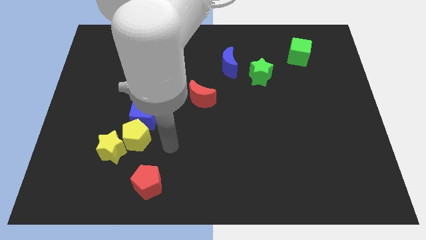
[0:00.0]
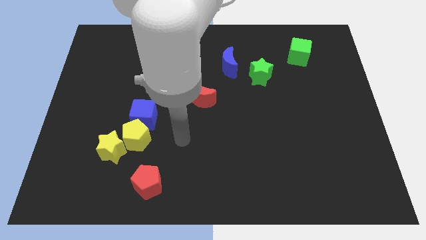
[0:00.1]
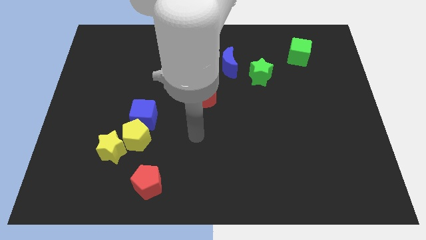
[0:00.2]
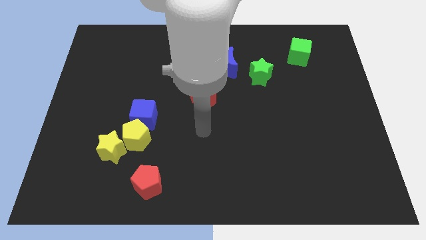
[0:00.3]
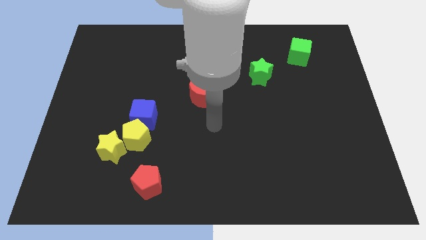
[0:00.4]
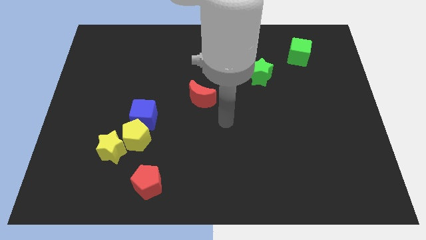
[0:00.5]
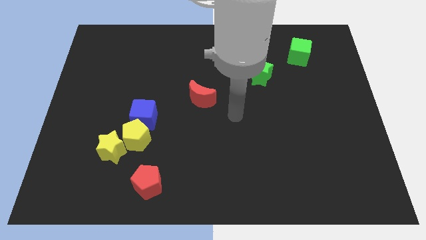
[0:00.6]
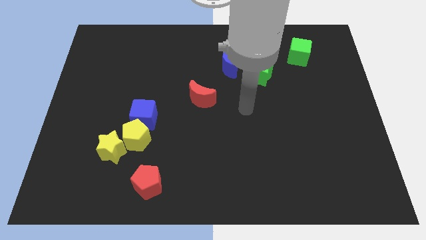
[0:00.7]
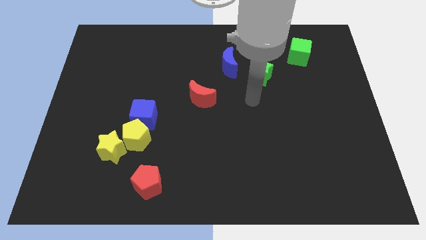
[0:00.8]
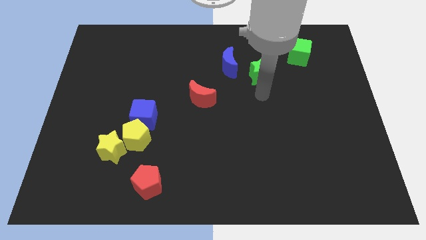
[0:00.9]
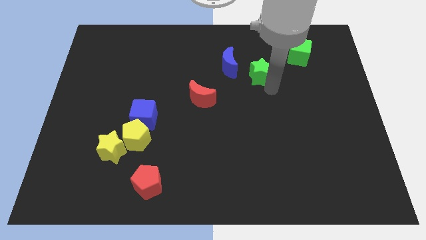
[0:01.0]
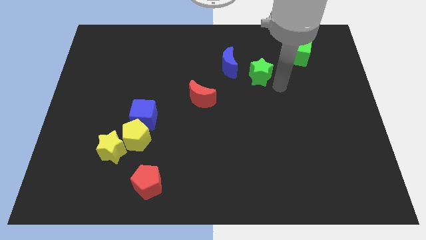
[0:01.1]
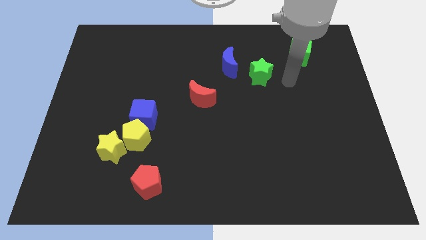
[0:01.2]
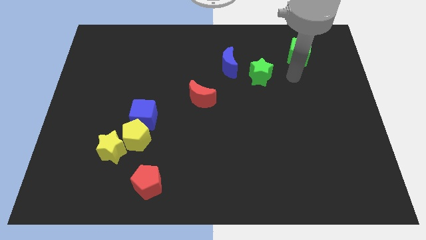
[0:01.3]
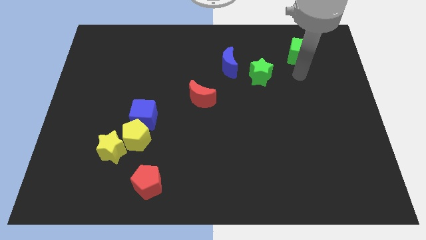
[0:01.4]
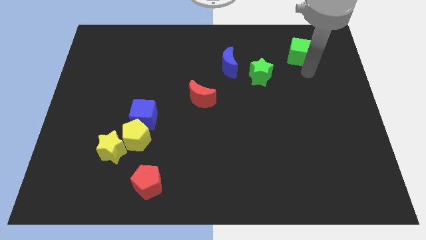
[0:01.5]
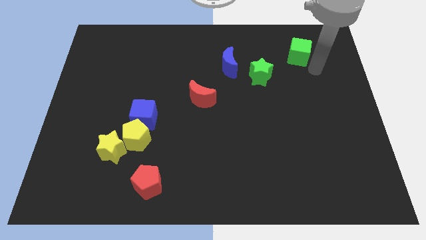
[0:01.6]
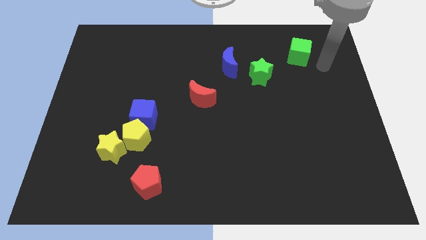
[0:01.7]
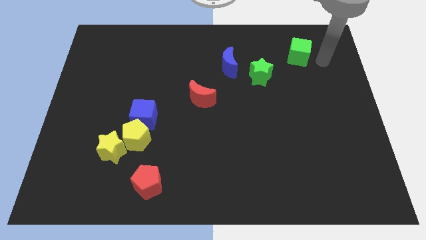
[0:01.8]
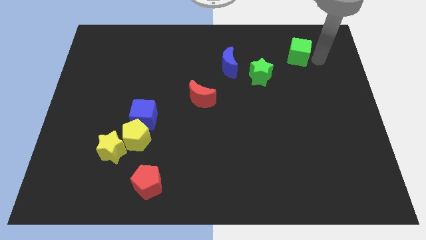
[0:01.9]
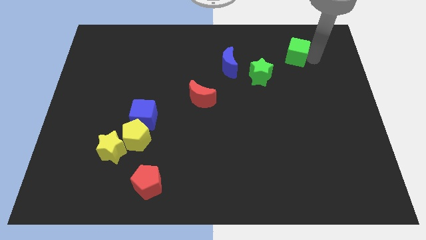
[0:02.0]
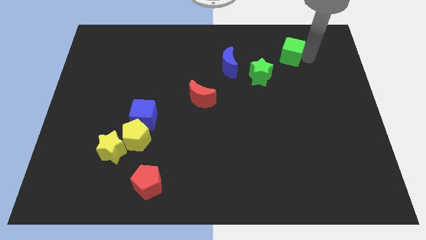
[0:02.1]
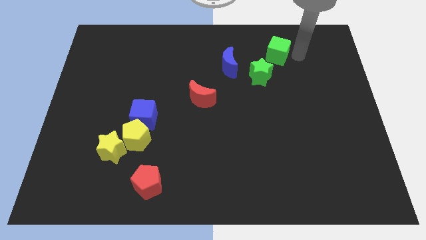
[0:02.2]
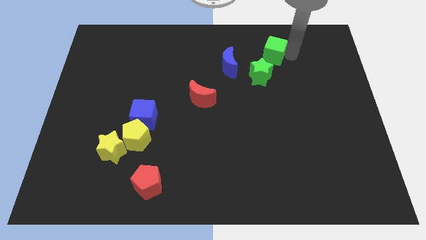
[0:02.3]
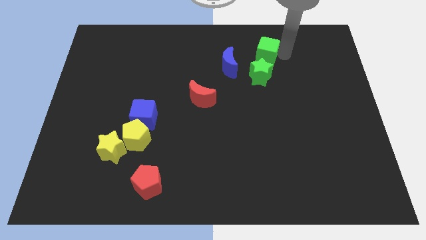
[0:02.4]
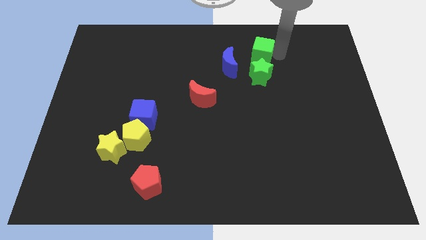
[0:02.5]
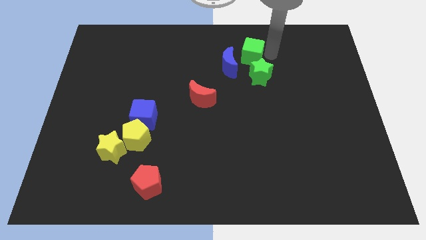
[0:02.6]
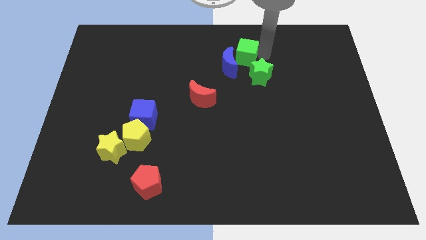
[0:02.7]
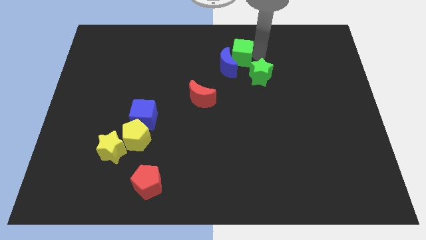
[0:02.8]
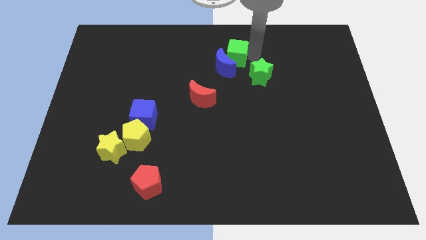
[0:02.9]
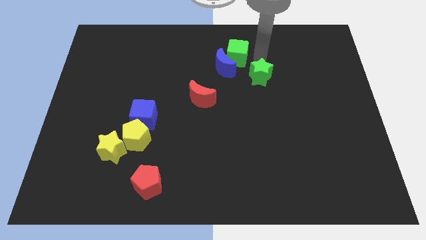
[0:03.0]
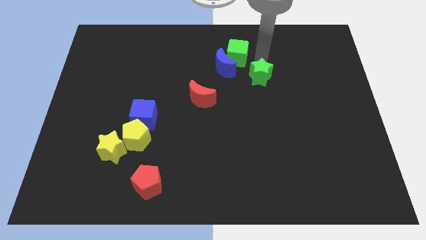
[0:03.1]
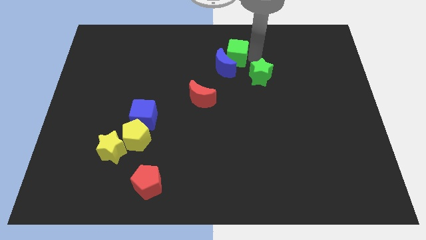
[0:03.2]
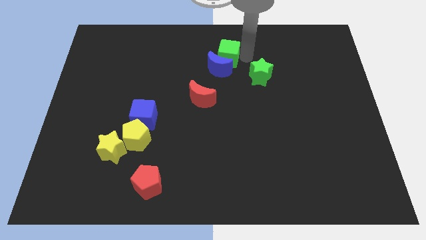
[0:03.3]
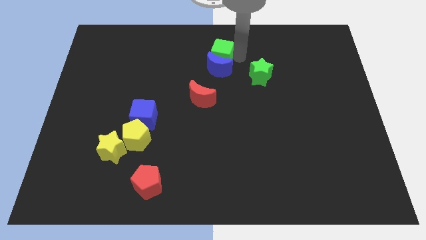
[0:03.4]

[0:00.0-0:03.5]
push the green cube to the left

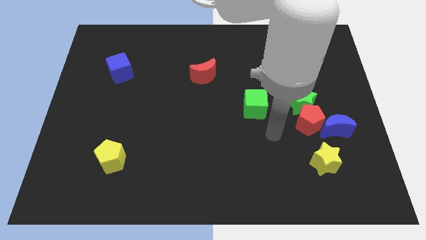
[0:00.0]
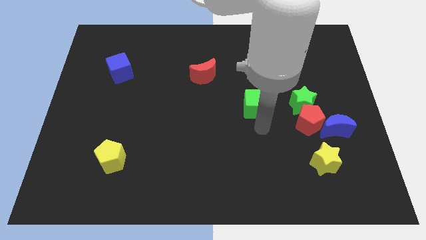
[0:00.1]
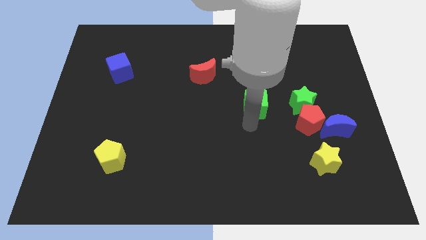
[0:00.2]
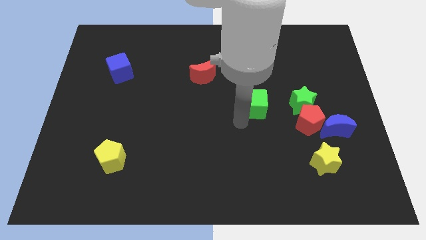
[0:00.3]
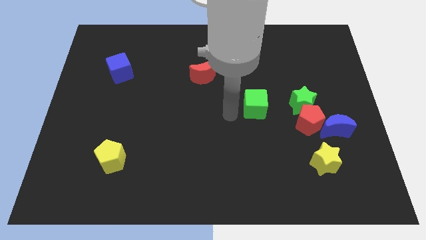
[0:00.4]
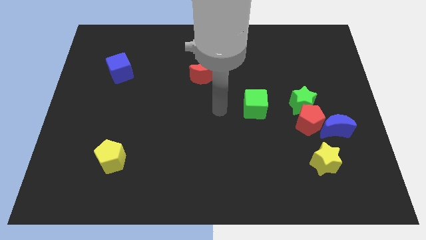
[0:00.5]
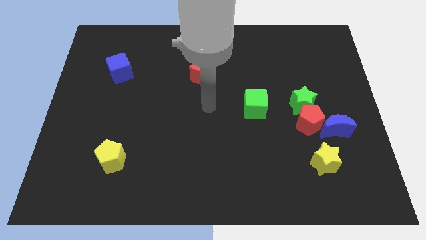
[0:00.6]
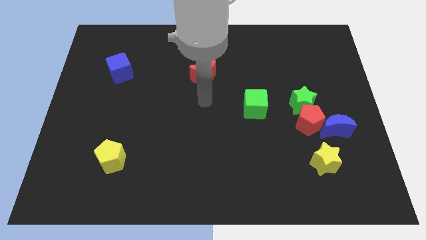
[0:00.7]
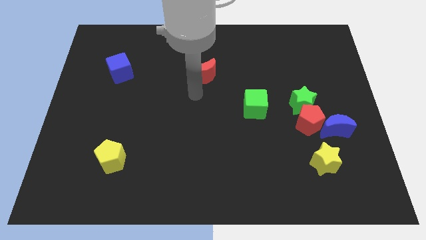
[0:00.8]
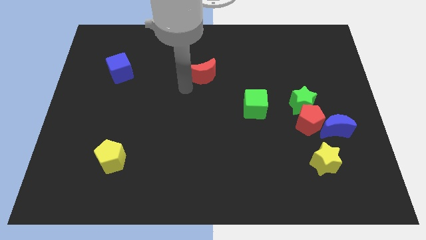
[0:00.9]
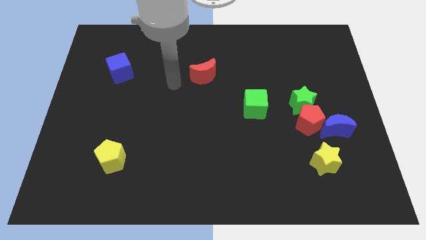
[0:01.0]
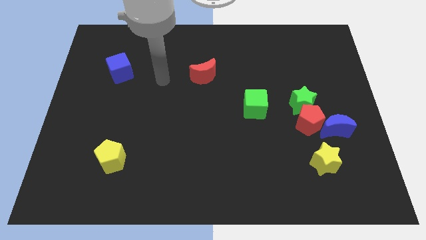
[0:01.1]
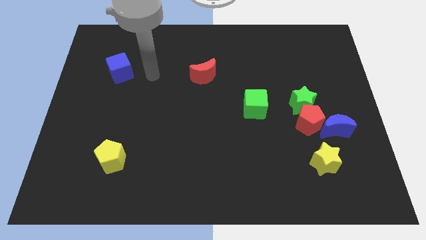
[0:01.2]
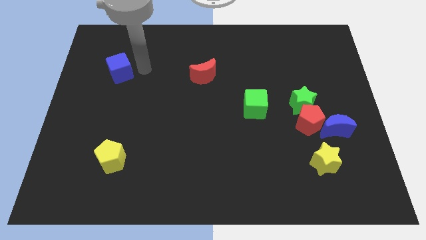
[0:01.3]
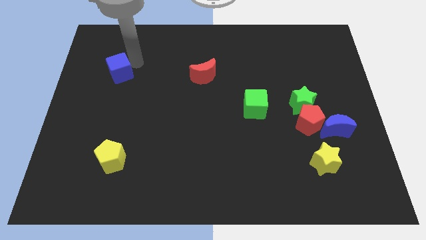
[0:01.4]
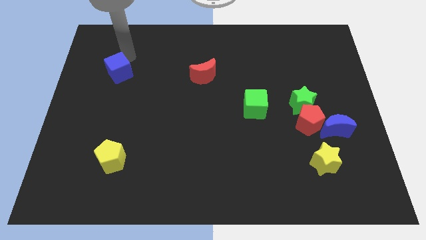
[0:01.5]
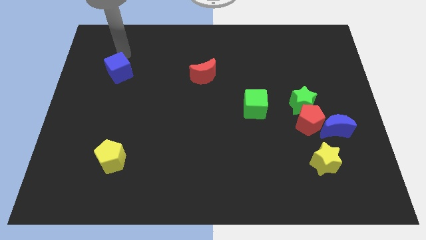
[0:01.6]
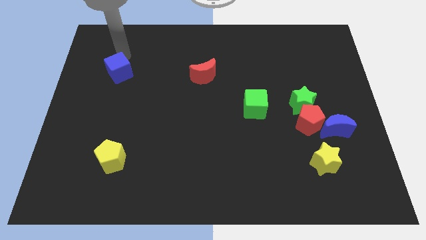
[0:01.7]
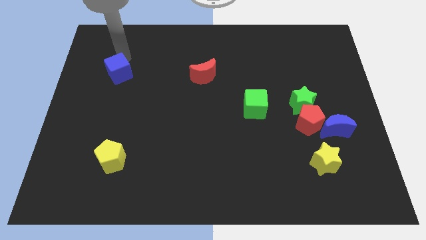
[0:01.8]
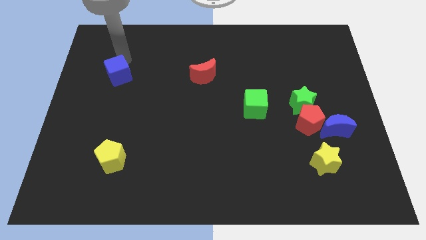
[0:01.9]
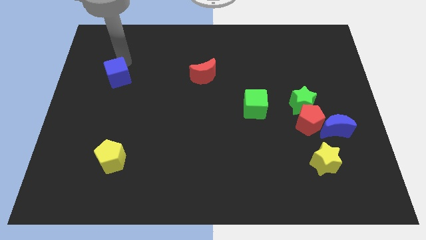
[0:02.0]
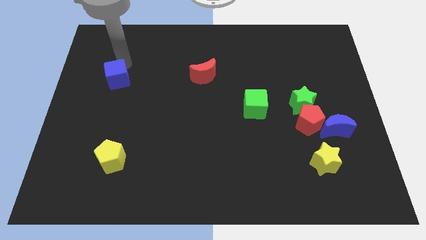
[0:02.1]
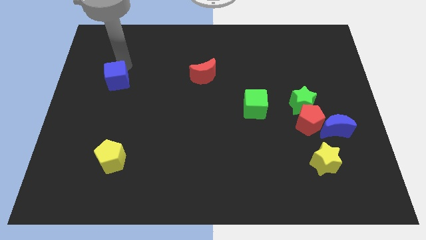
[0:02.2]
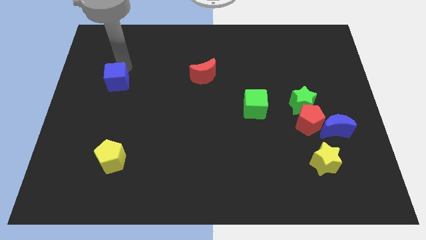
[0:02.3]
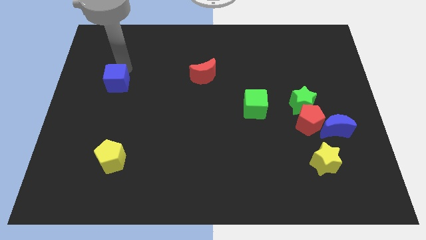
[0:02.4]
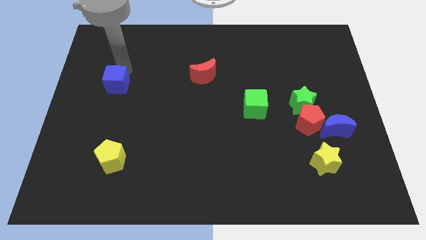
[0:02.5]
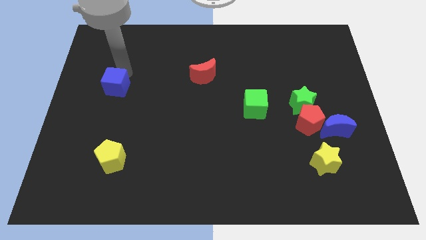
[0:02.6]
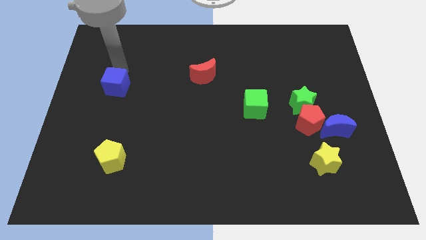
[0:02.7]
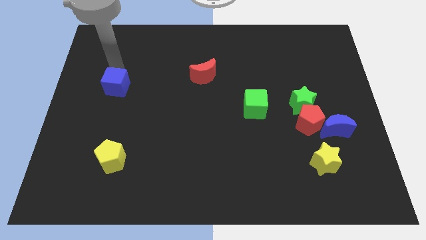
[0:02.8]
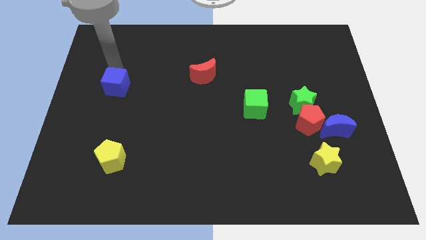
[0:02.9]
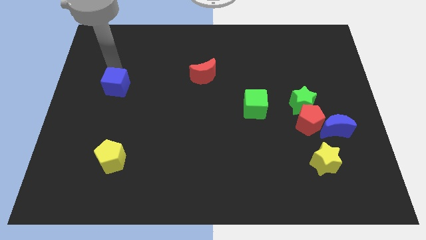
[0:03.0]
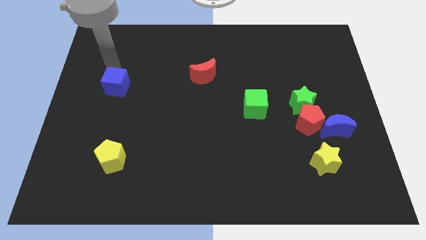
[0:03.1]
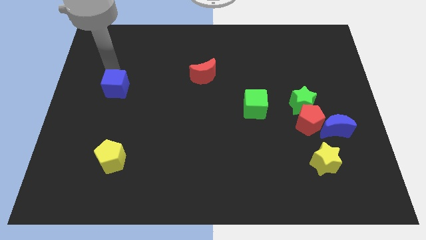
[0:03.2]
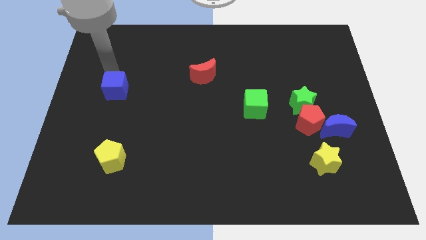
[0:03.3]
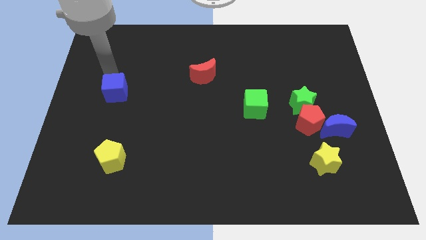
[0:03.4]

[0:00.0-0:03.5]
slide the blue cube a little downwards

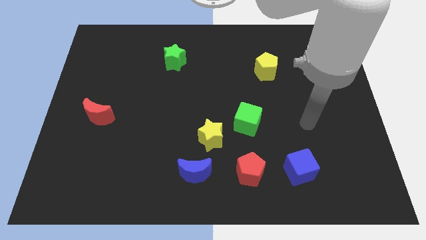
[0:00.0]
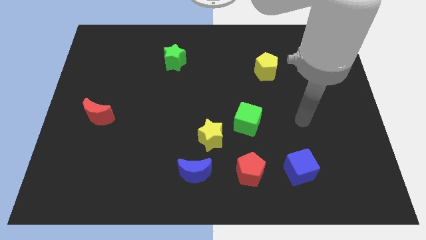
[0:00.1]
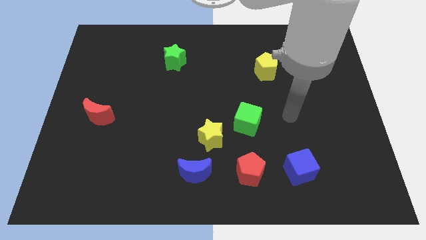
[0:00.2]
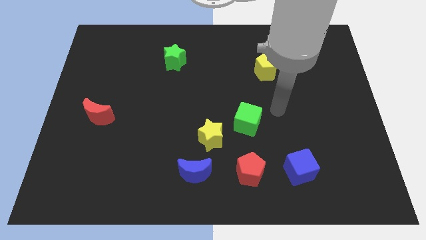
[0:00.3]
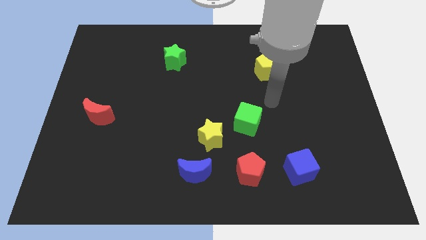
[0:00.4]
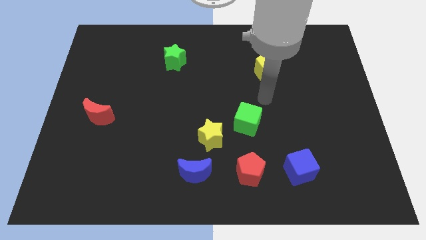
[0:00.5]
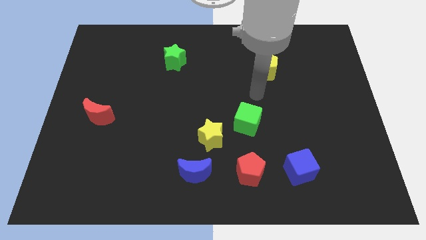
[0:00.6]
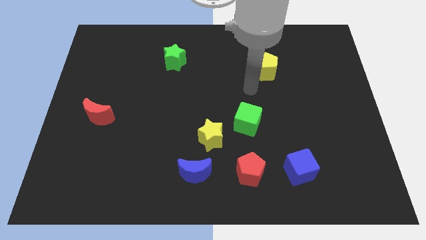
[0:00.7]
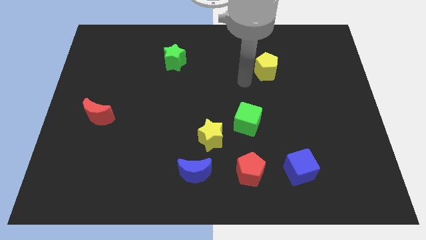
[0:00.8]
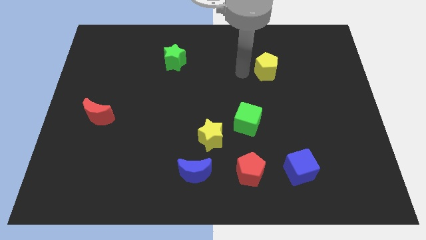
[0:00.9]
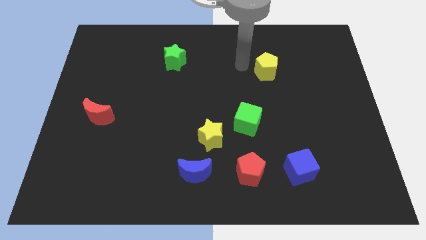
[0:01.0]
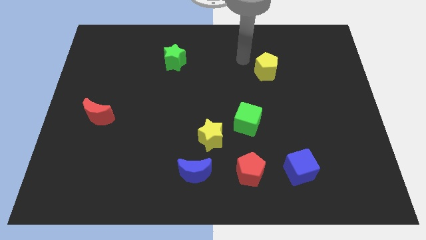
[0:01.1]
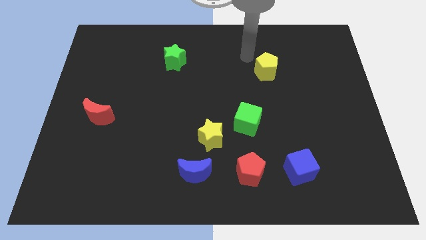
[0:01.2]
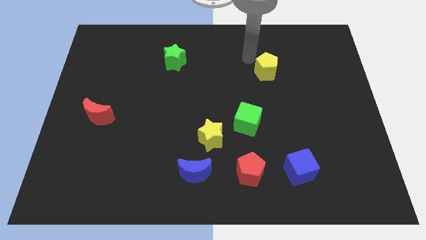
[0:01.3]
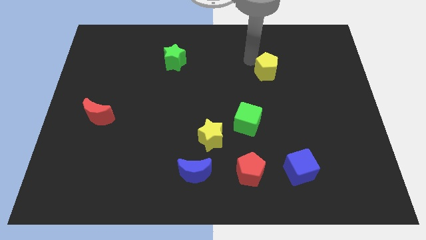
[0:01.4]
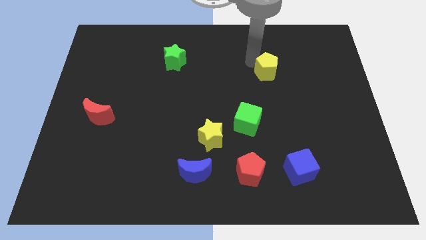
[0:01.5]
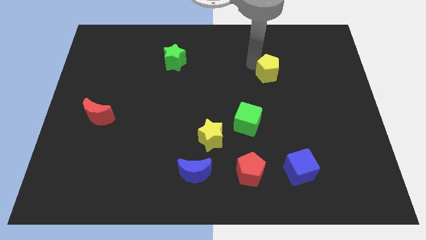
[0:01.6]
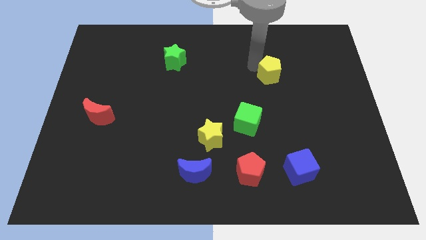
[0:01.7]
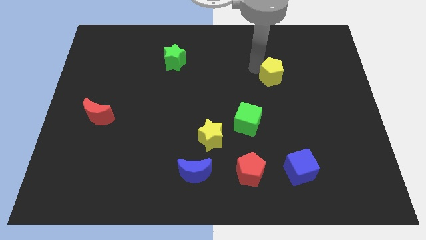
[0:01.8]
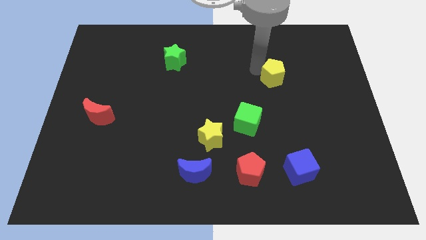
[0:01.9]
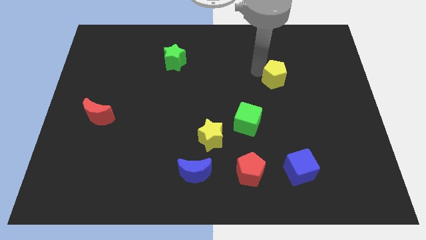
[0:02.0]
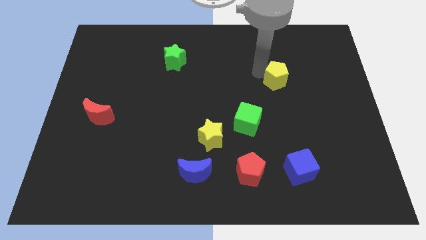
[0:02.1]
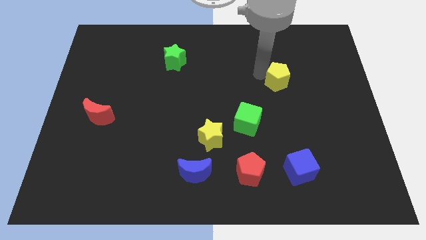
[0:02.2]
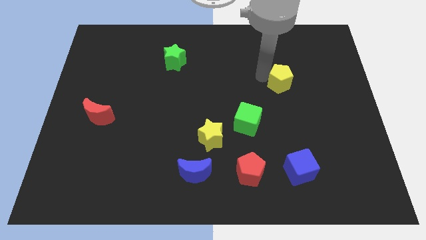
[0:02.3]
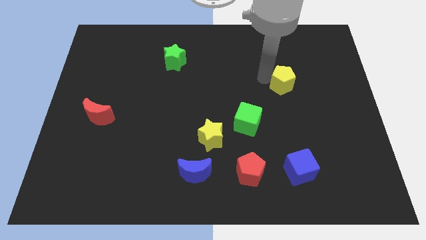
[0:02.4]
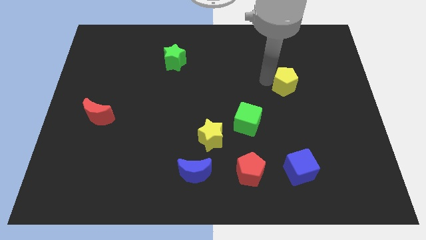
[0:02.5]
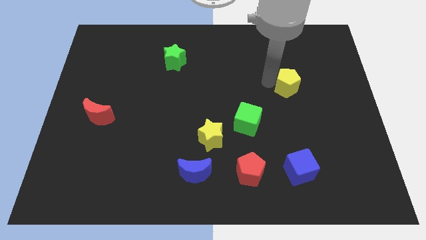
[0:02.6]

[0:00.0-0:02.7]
move the yellow pentagon a little downwards and to the right diagonally
